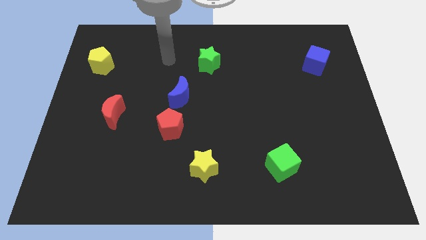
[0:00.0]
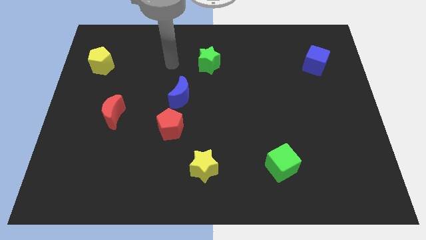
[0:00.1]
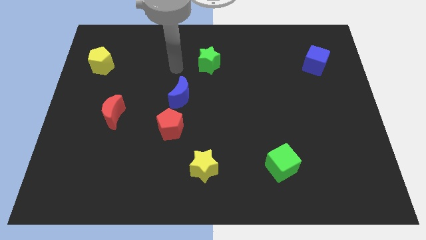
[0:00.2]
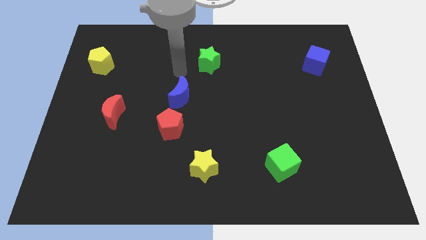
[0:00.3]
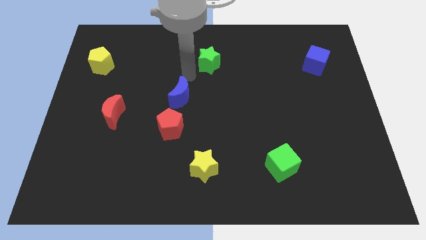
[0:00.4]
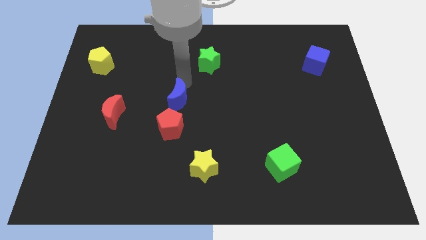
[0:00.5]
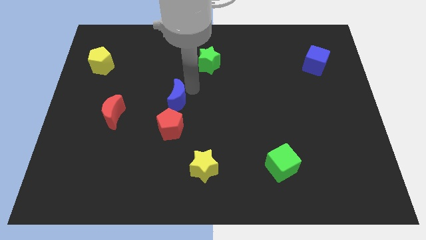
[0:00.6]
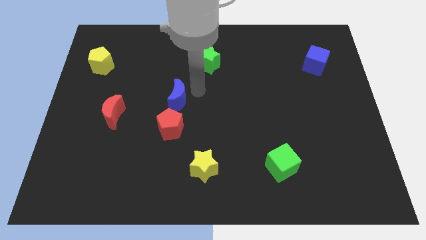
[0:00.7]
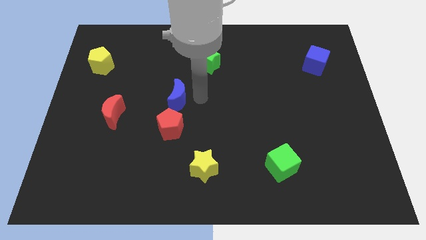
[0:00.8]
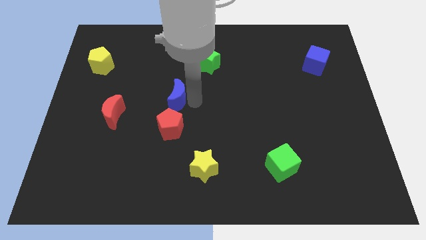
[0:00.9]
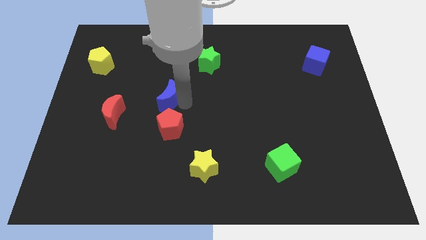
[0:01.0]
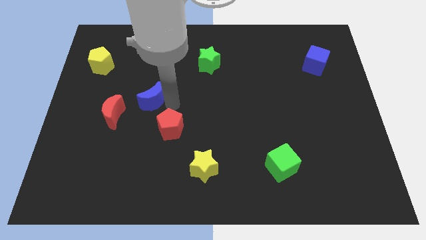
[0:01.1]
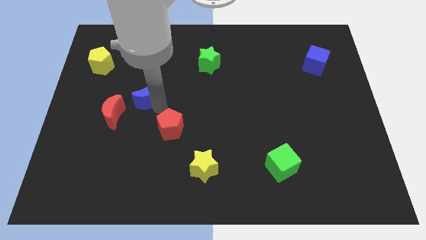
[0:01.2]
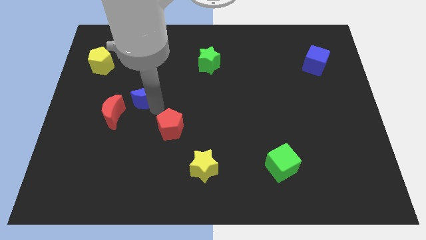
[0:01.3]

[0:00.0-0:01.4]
separate the red pentagon from the blue moon

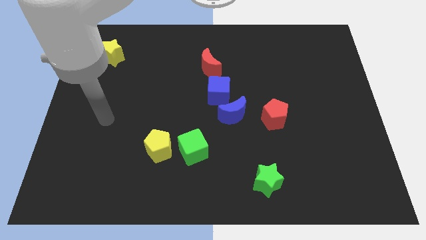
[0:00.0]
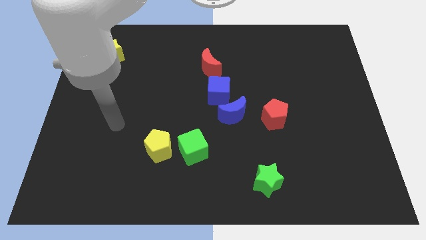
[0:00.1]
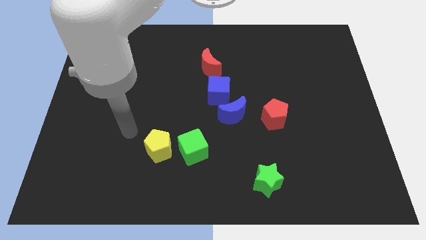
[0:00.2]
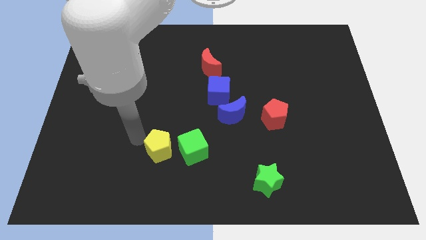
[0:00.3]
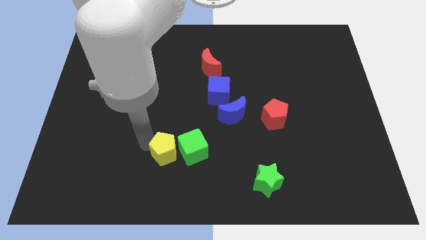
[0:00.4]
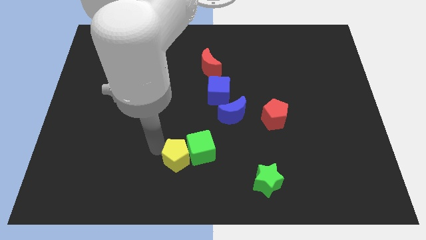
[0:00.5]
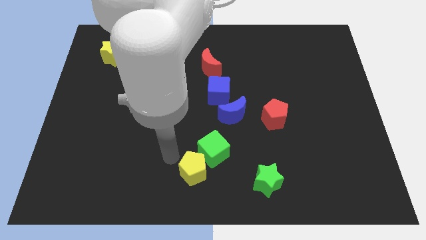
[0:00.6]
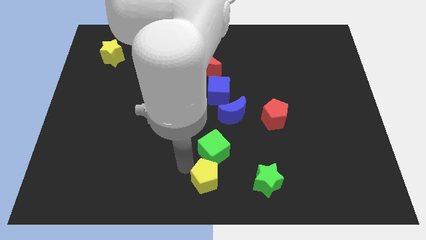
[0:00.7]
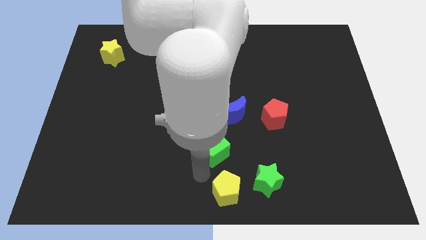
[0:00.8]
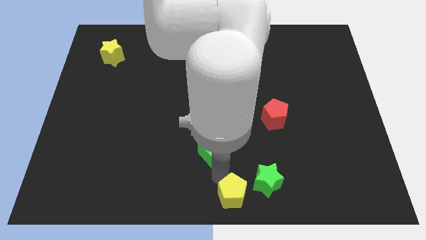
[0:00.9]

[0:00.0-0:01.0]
separate the green cube from the yellow pentagon

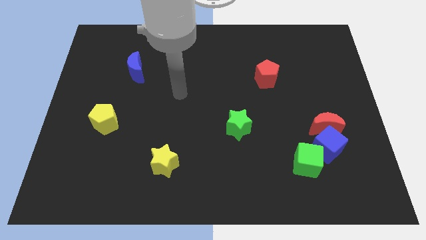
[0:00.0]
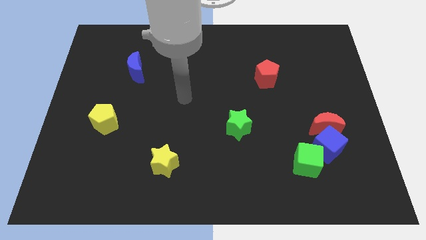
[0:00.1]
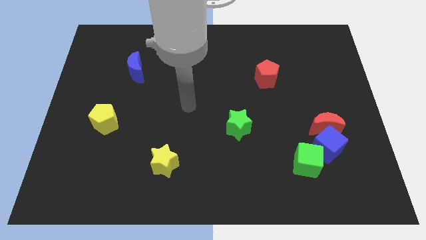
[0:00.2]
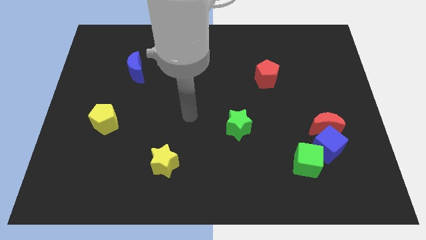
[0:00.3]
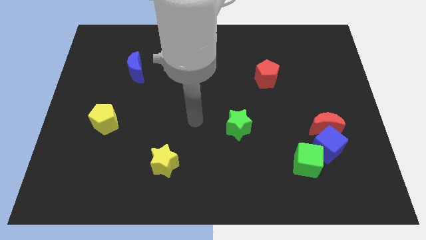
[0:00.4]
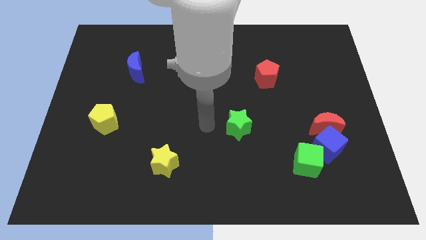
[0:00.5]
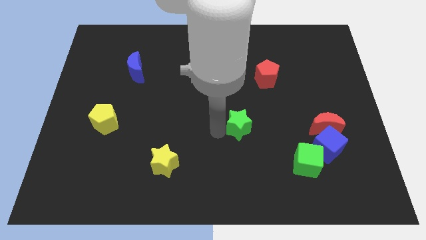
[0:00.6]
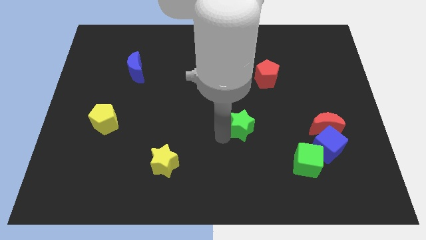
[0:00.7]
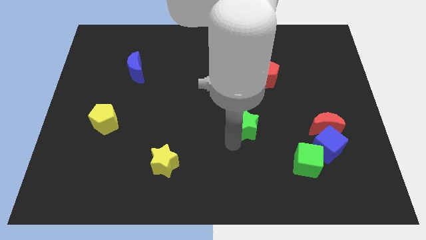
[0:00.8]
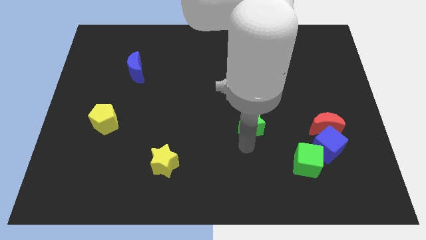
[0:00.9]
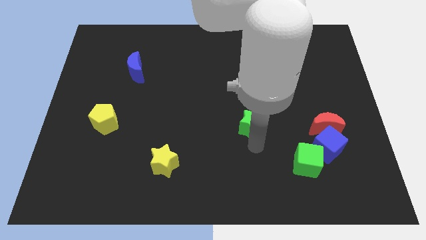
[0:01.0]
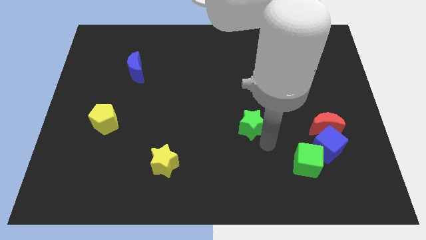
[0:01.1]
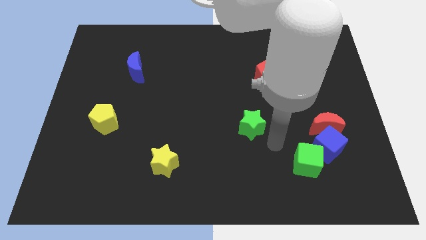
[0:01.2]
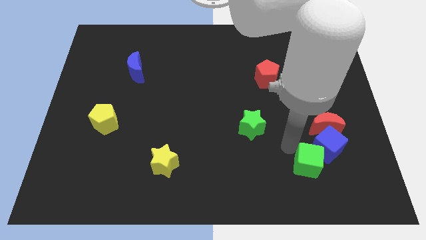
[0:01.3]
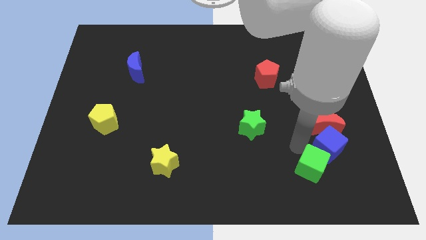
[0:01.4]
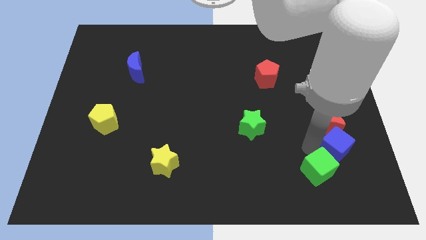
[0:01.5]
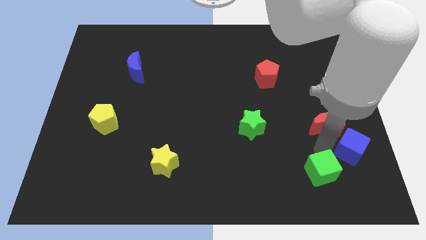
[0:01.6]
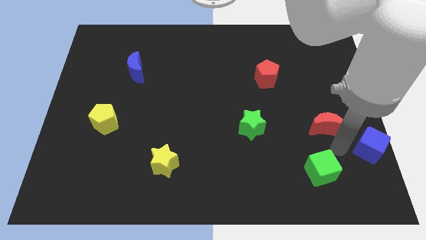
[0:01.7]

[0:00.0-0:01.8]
move the red moon away from the blue cube

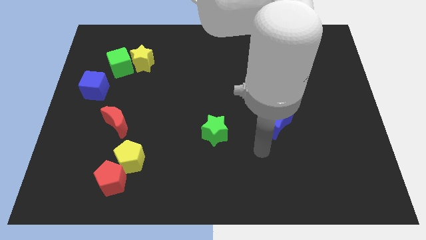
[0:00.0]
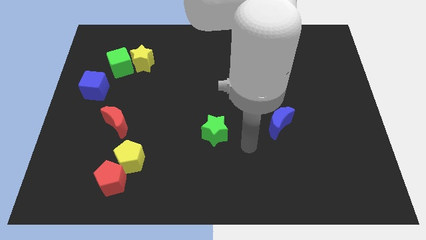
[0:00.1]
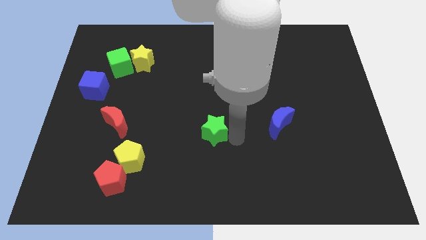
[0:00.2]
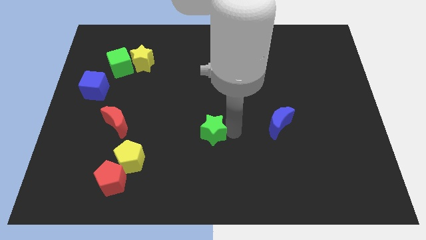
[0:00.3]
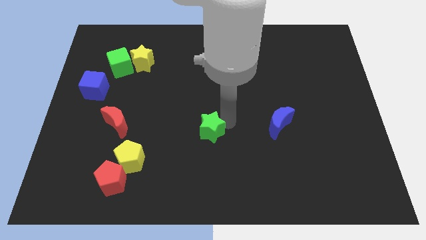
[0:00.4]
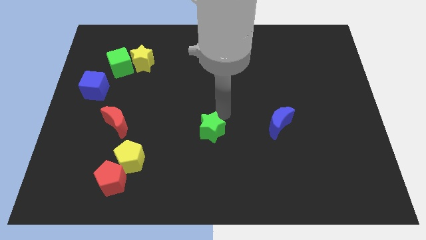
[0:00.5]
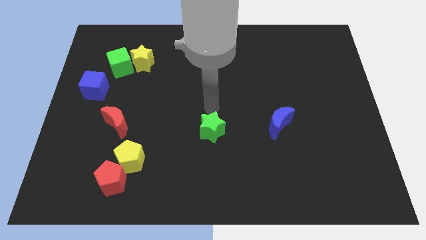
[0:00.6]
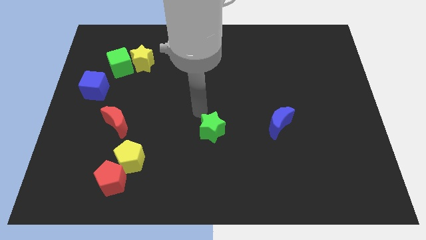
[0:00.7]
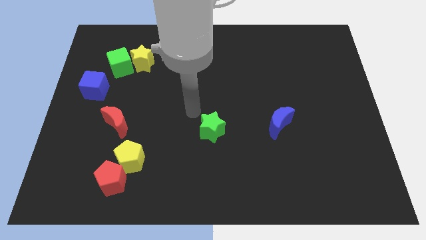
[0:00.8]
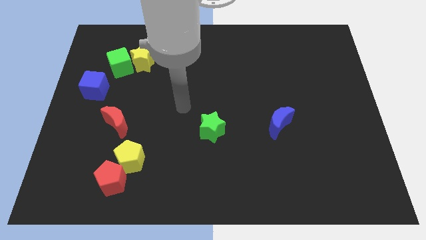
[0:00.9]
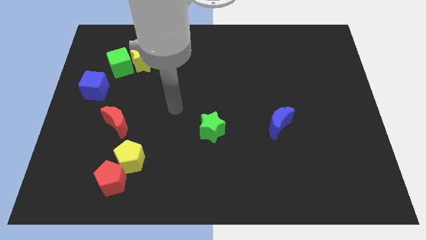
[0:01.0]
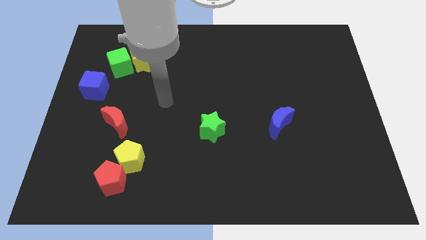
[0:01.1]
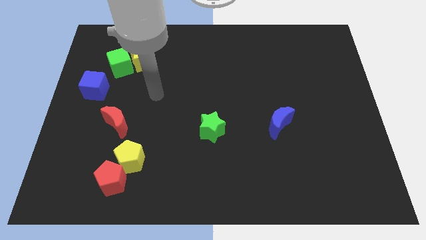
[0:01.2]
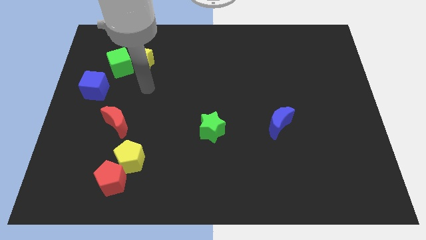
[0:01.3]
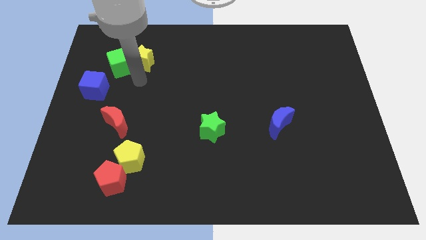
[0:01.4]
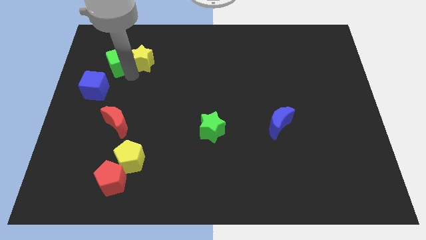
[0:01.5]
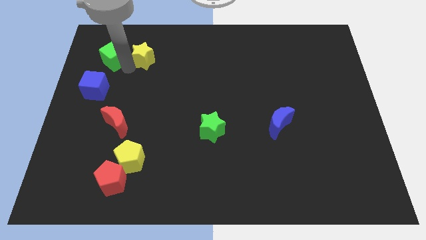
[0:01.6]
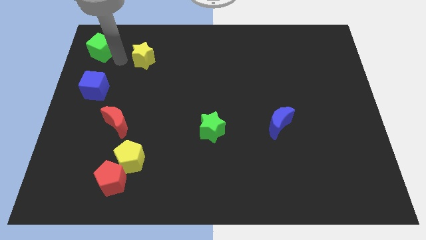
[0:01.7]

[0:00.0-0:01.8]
separate the yellow star from the green cube

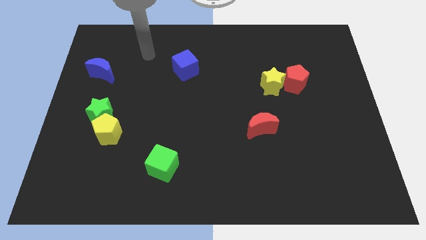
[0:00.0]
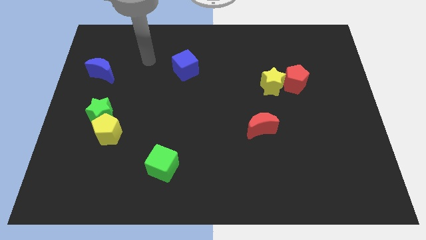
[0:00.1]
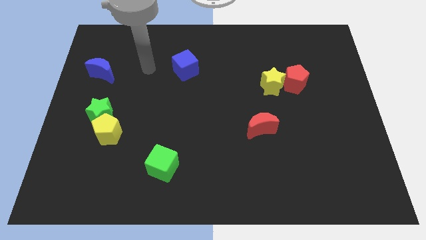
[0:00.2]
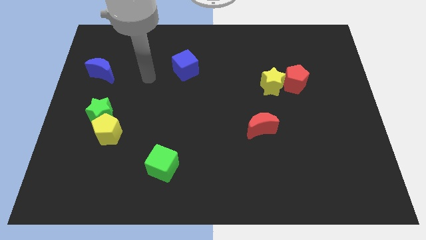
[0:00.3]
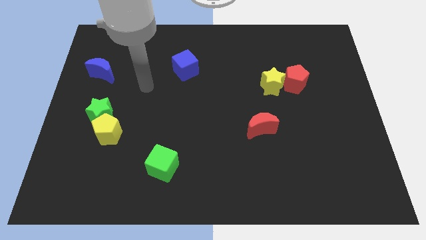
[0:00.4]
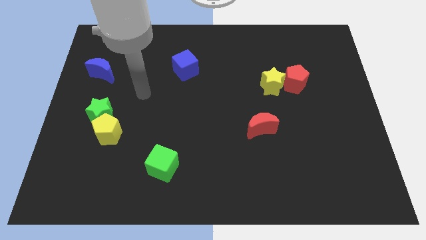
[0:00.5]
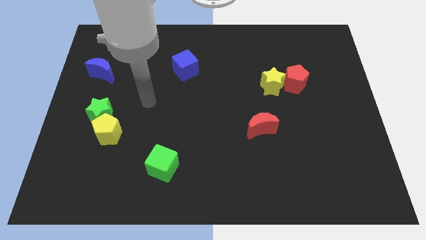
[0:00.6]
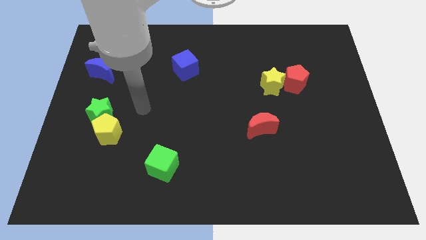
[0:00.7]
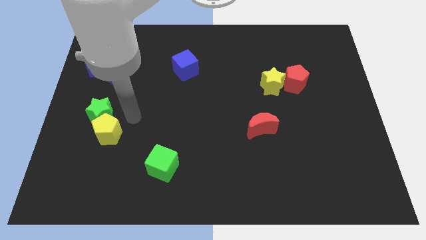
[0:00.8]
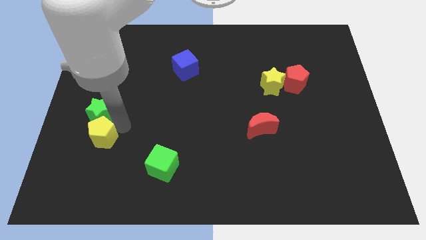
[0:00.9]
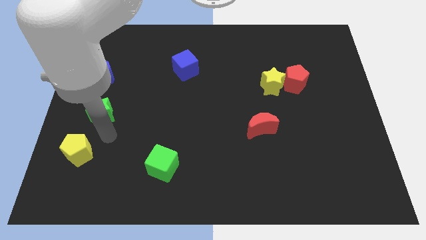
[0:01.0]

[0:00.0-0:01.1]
separate the green star from the yellow pentagon

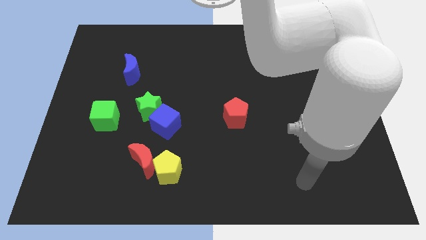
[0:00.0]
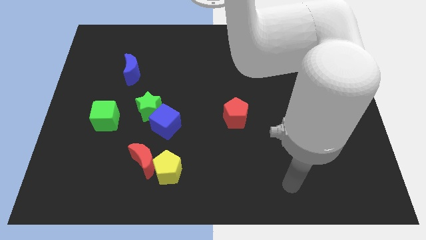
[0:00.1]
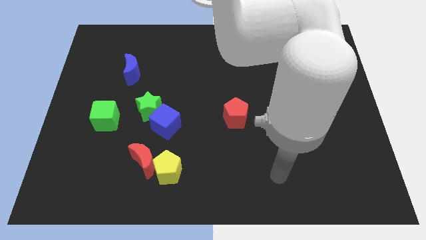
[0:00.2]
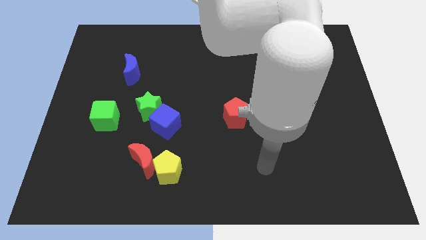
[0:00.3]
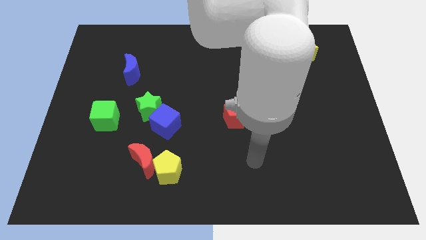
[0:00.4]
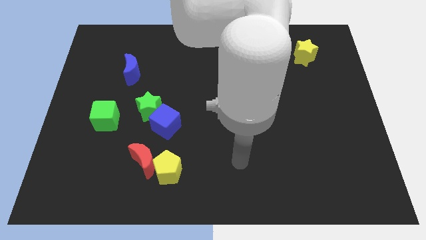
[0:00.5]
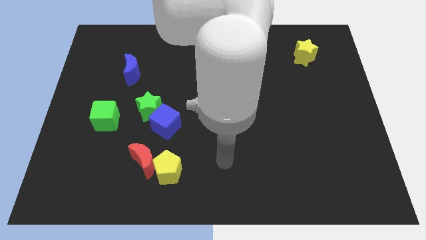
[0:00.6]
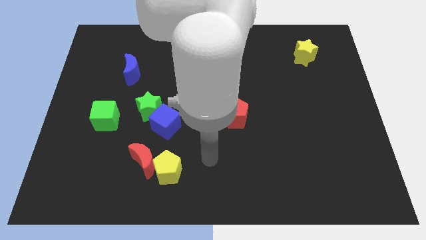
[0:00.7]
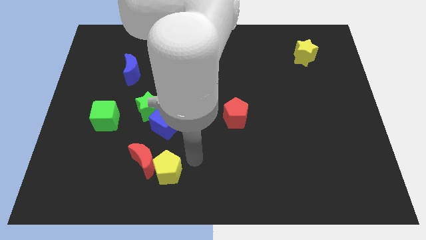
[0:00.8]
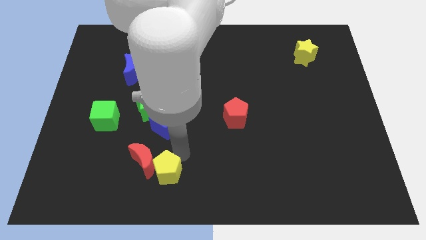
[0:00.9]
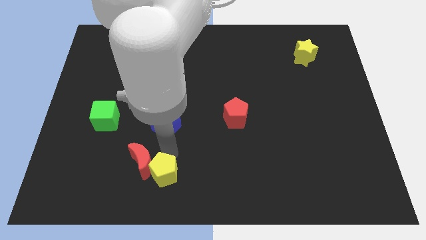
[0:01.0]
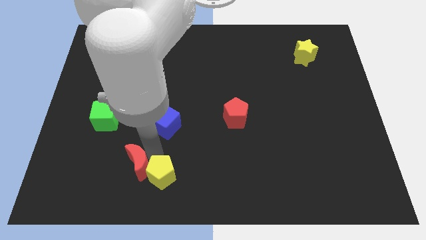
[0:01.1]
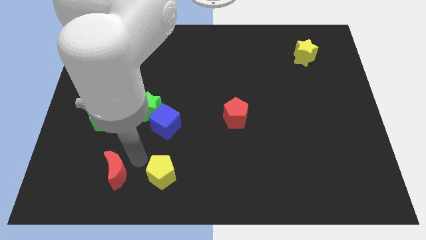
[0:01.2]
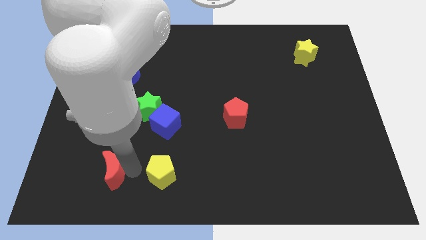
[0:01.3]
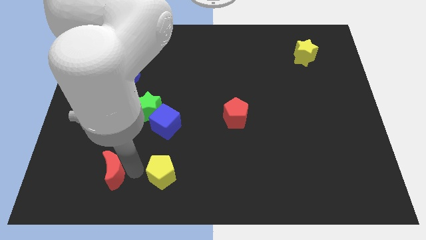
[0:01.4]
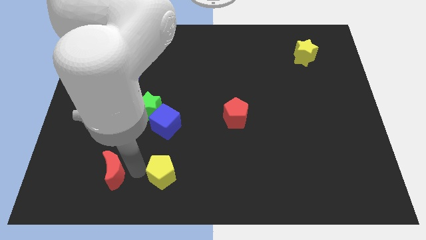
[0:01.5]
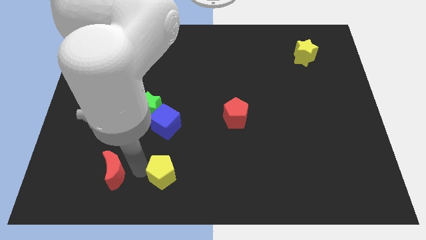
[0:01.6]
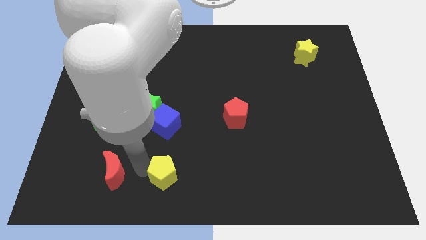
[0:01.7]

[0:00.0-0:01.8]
pull the yellow pentagon apart from the red moon

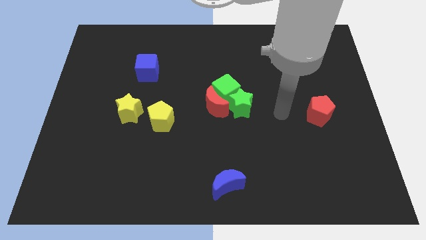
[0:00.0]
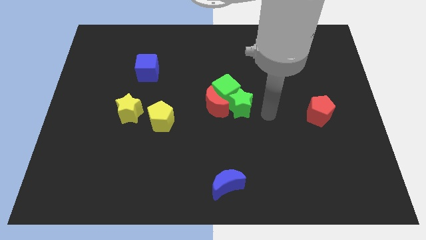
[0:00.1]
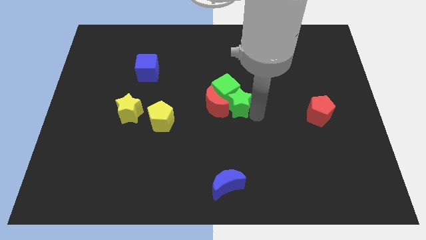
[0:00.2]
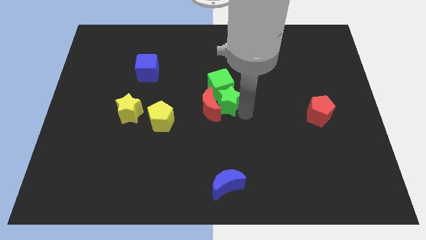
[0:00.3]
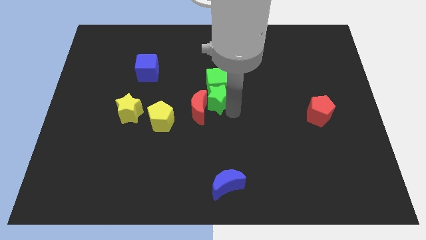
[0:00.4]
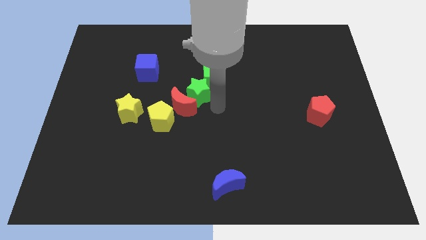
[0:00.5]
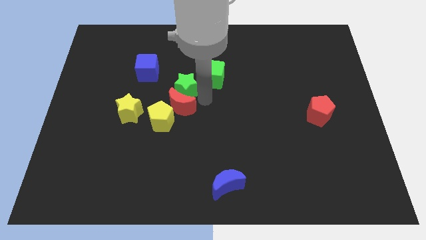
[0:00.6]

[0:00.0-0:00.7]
move the green cube away from the red moon and green star
